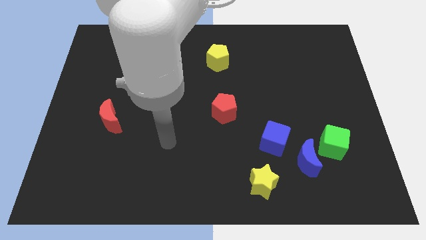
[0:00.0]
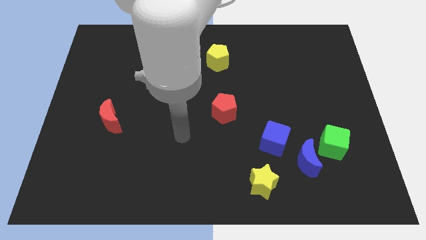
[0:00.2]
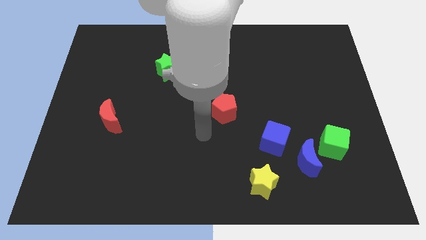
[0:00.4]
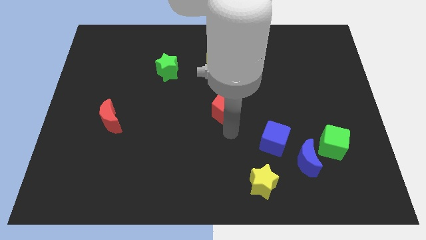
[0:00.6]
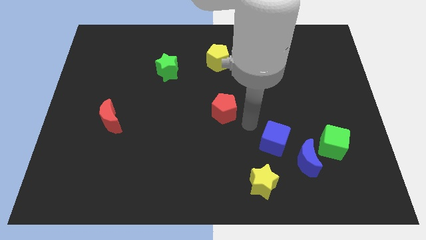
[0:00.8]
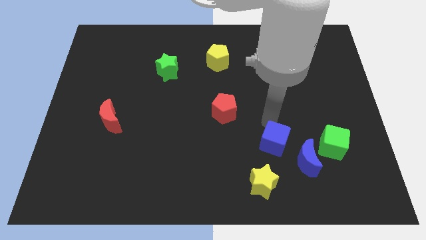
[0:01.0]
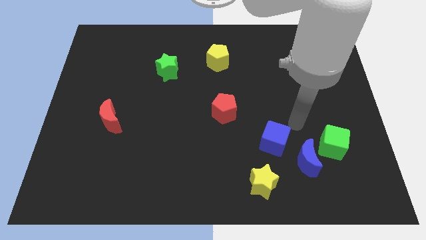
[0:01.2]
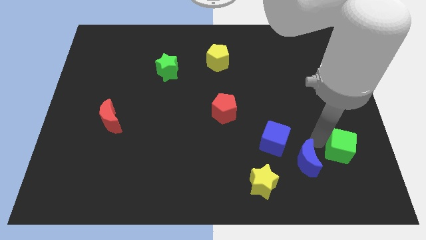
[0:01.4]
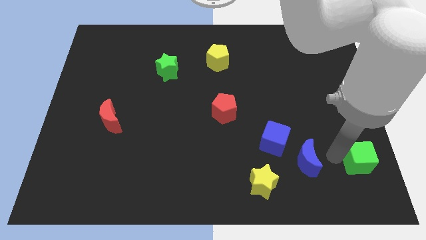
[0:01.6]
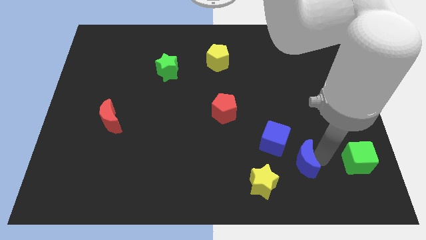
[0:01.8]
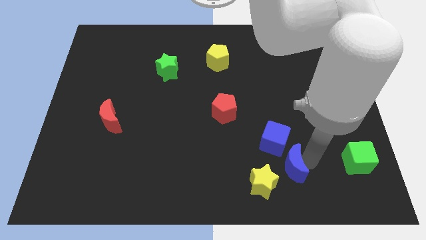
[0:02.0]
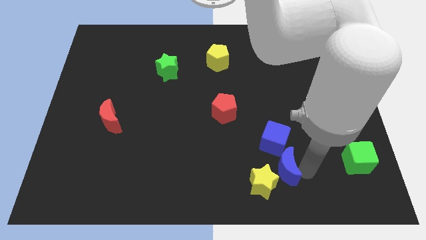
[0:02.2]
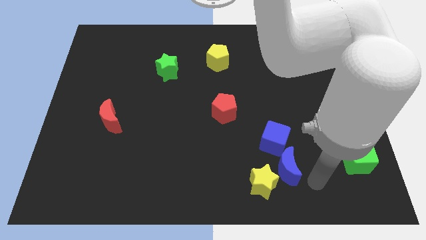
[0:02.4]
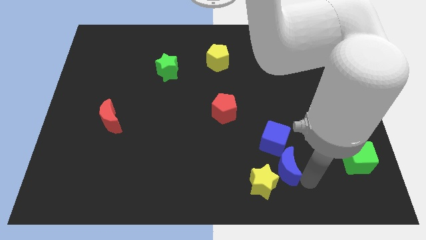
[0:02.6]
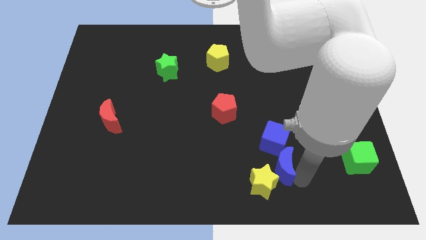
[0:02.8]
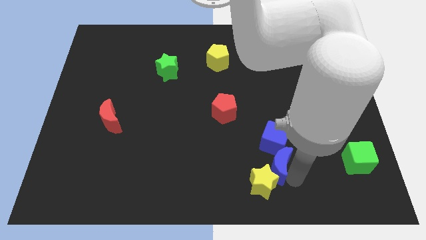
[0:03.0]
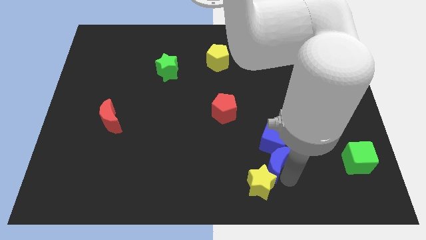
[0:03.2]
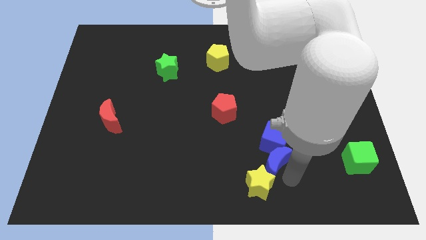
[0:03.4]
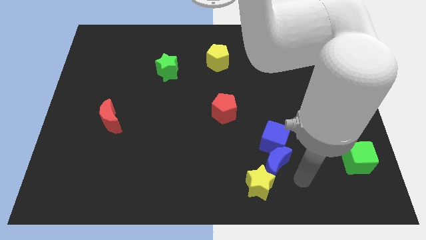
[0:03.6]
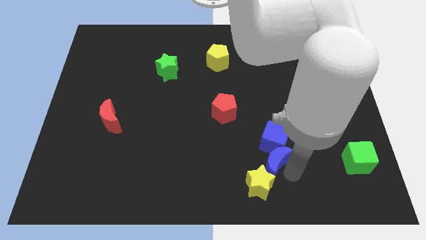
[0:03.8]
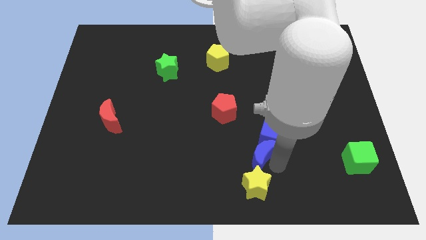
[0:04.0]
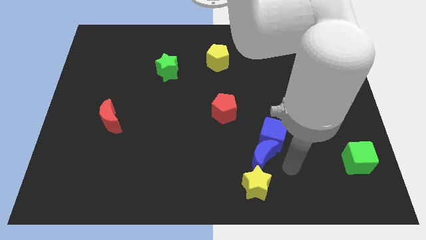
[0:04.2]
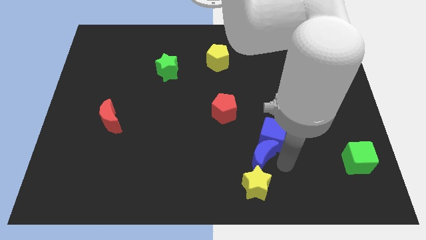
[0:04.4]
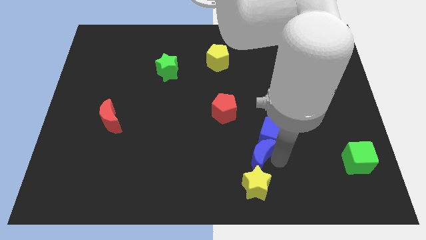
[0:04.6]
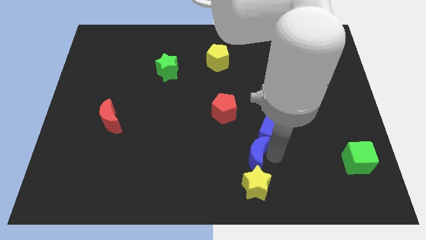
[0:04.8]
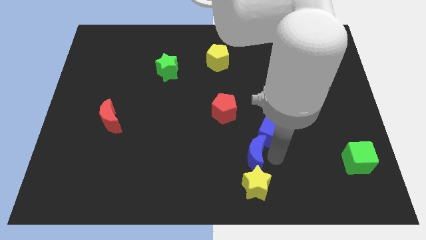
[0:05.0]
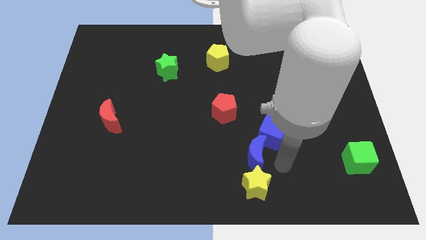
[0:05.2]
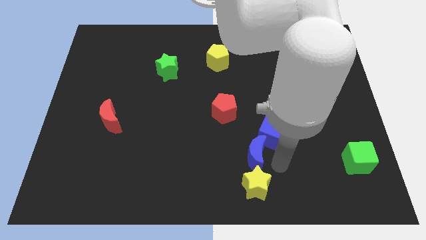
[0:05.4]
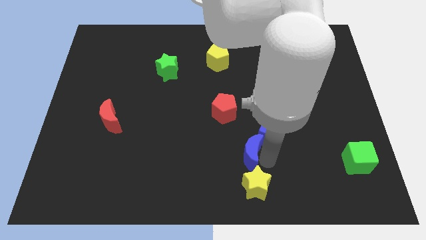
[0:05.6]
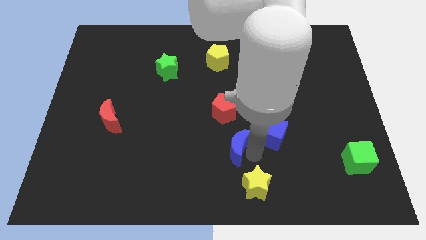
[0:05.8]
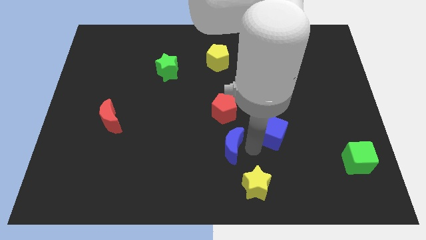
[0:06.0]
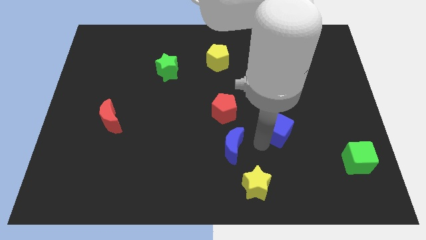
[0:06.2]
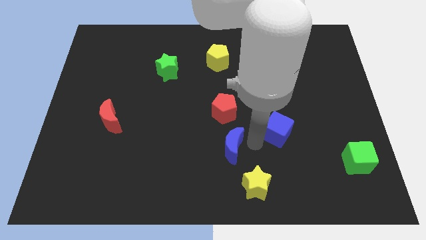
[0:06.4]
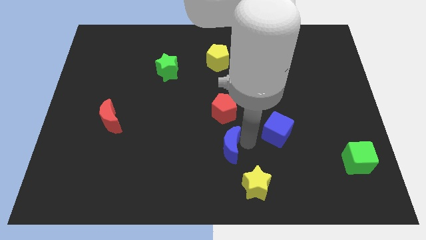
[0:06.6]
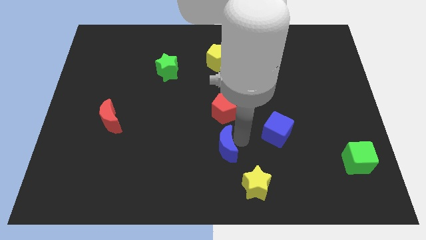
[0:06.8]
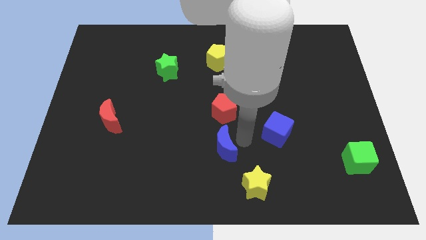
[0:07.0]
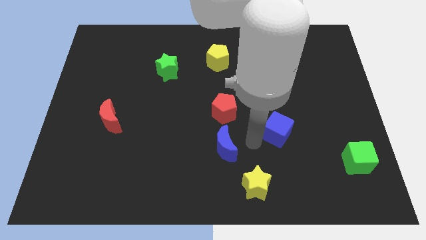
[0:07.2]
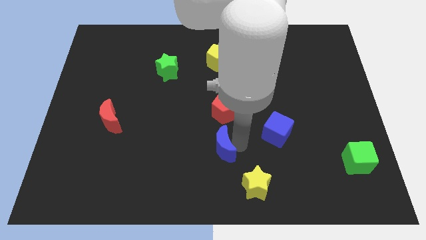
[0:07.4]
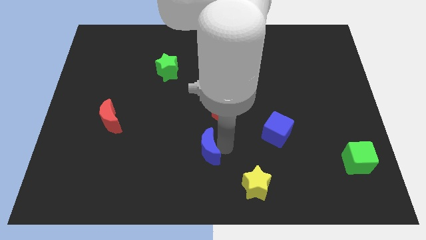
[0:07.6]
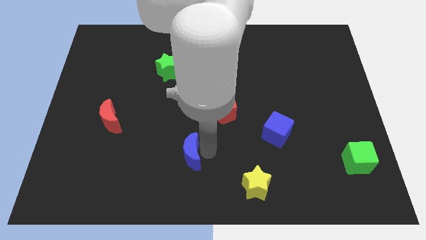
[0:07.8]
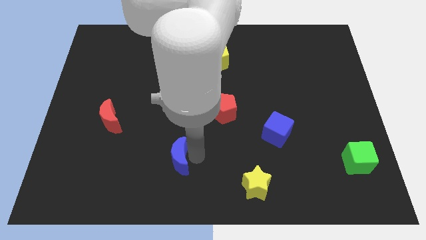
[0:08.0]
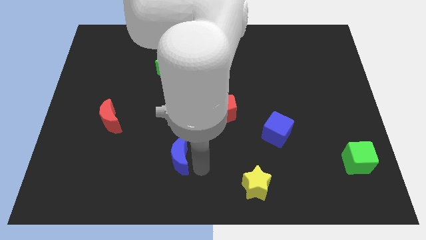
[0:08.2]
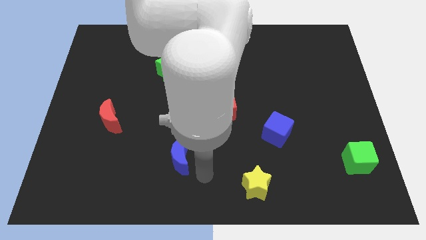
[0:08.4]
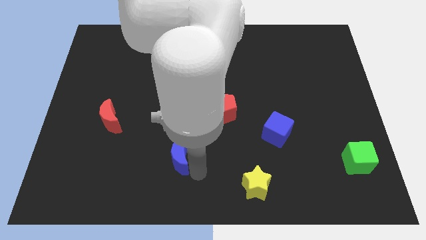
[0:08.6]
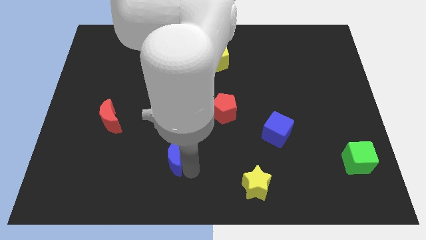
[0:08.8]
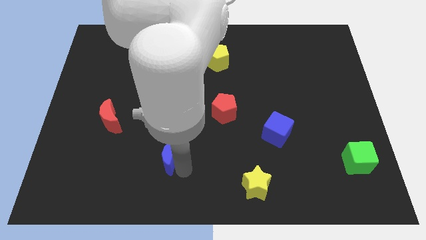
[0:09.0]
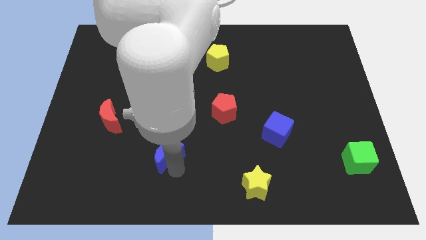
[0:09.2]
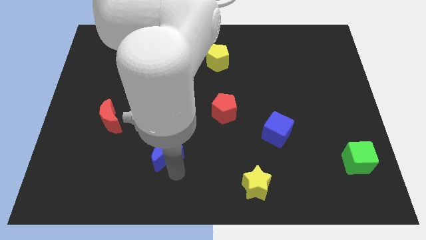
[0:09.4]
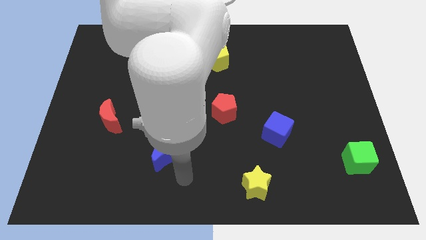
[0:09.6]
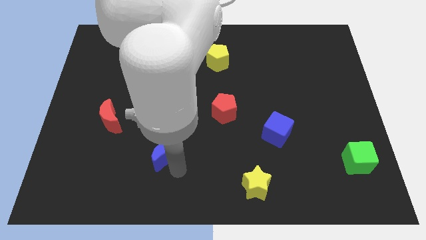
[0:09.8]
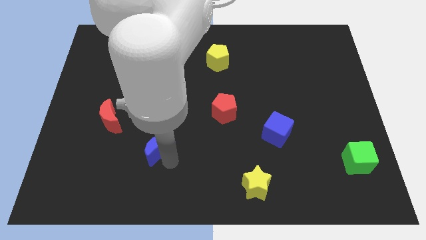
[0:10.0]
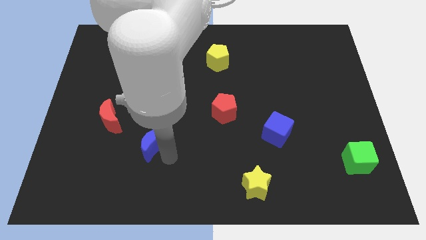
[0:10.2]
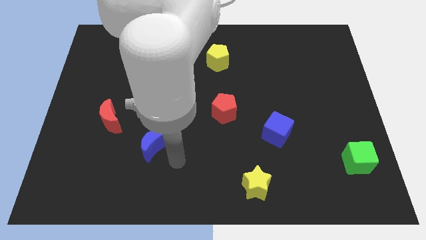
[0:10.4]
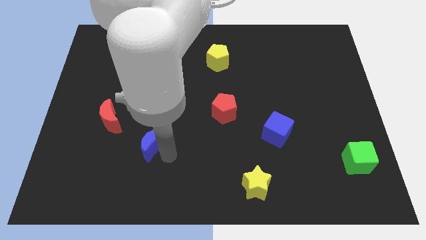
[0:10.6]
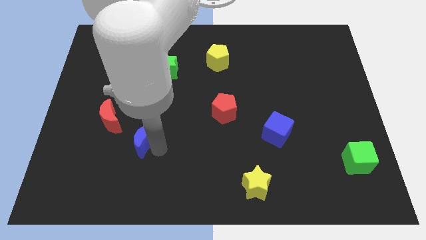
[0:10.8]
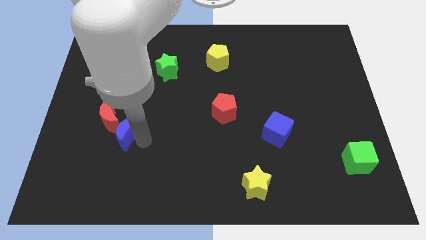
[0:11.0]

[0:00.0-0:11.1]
put the blue moon towards the red moon

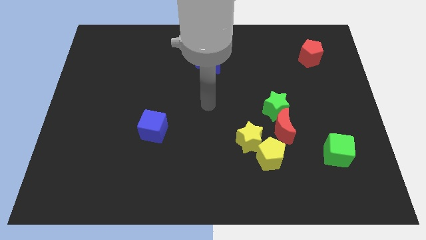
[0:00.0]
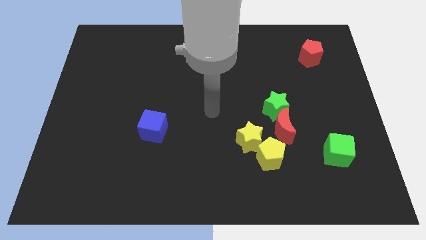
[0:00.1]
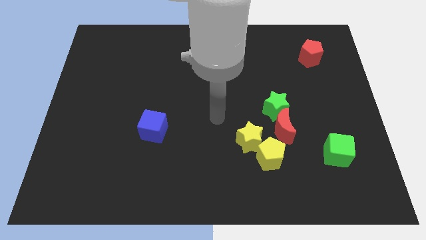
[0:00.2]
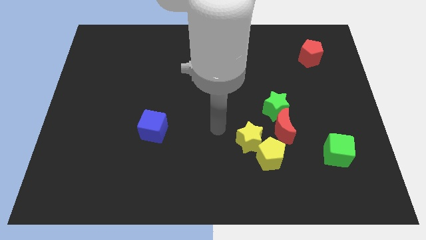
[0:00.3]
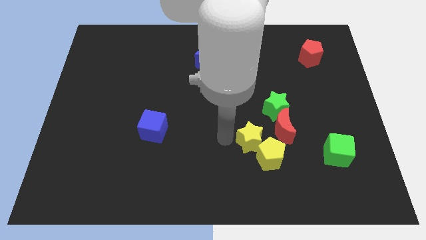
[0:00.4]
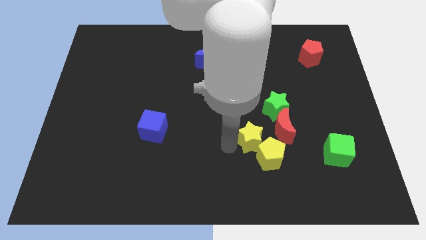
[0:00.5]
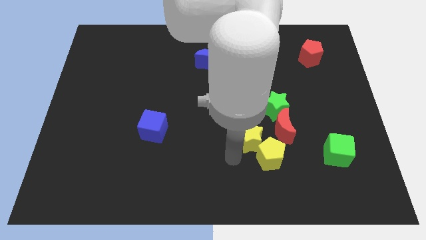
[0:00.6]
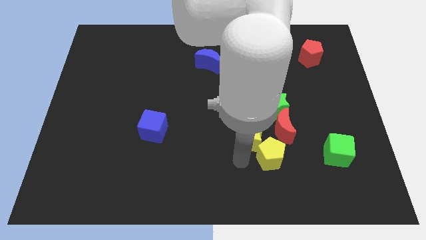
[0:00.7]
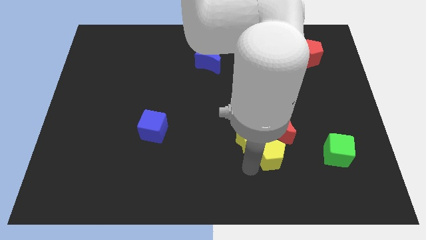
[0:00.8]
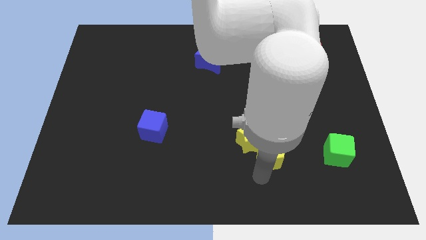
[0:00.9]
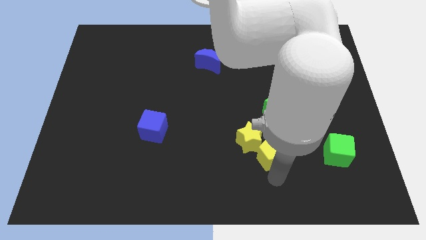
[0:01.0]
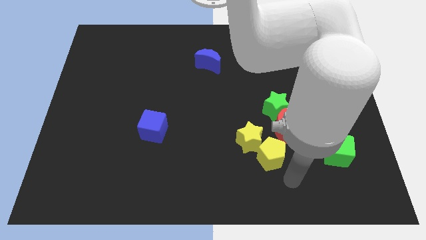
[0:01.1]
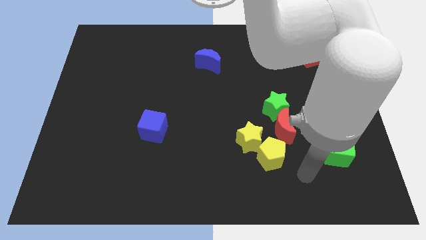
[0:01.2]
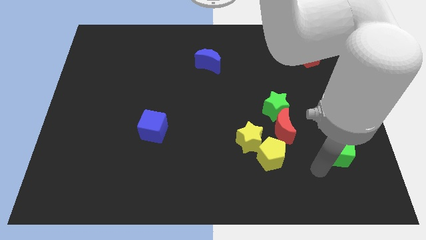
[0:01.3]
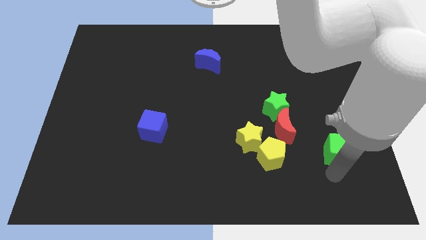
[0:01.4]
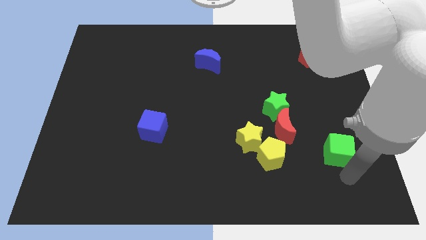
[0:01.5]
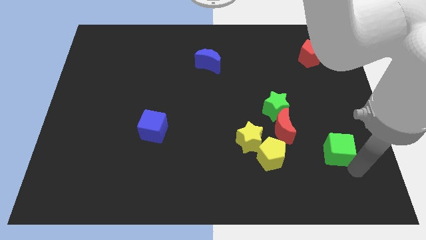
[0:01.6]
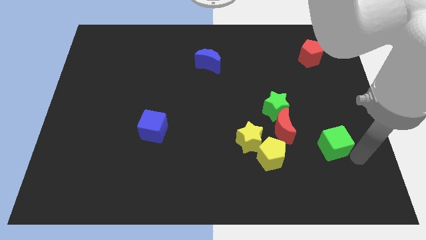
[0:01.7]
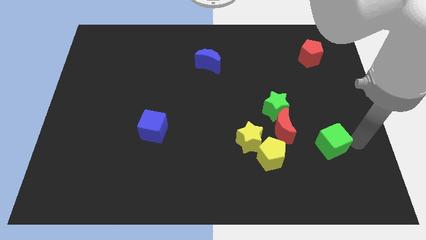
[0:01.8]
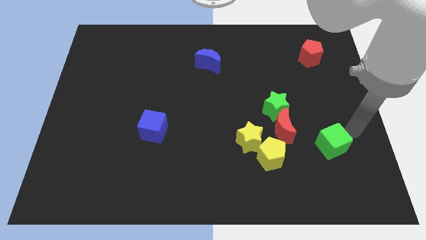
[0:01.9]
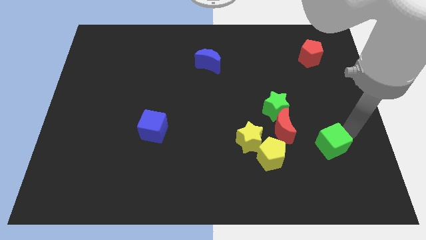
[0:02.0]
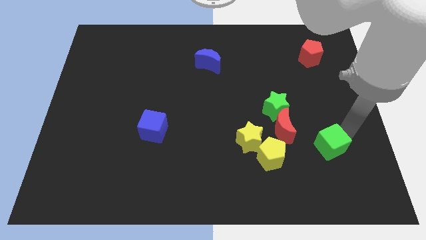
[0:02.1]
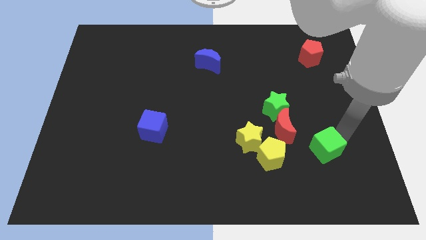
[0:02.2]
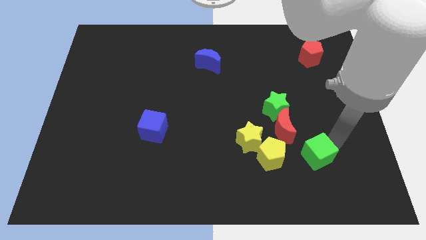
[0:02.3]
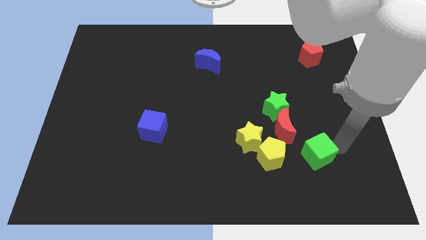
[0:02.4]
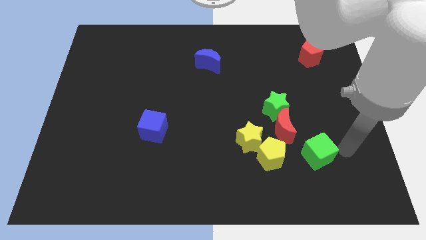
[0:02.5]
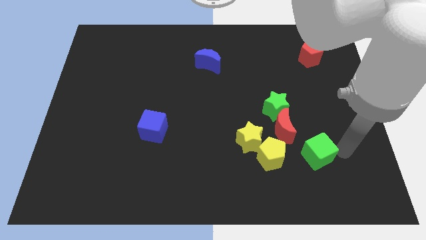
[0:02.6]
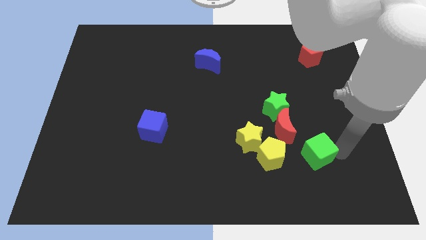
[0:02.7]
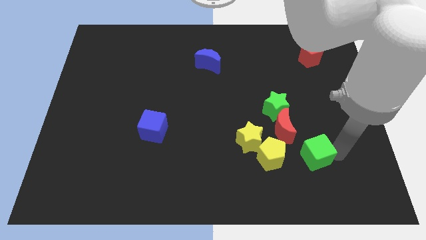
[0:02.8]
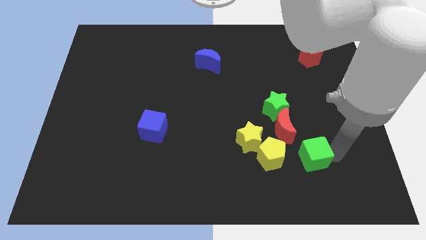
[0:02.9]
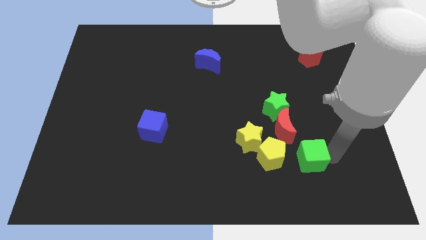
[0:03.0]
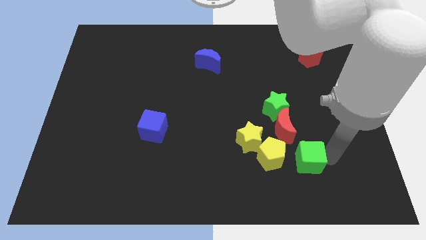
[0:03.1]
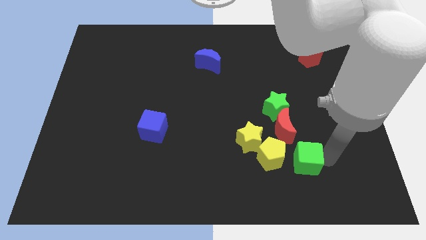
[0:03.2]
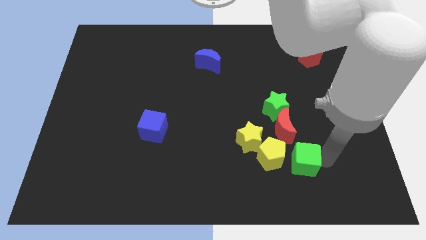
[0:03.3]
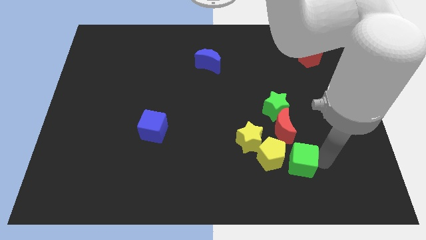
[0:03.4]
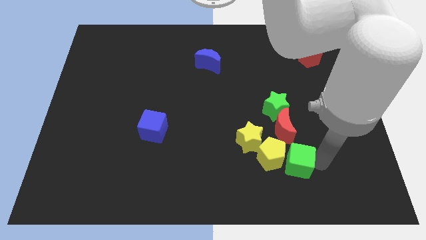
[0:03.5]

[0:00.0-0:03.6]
move the green cube to the yellow pentagon
